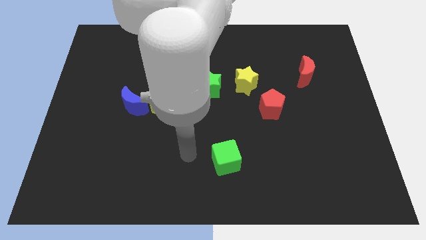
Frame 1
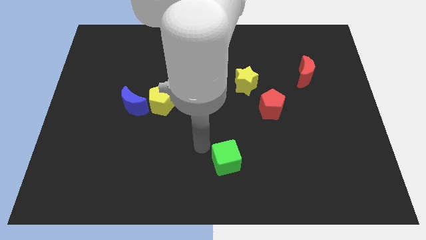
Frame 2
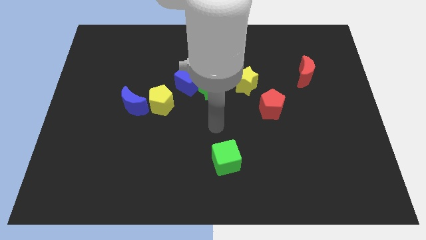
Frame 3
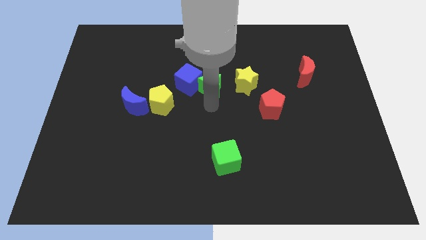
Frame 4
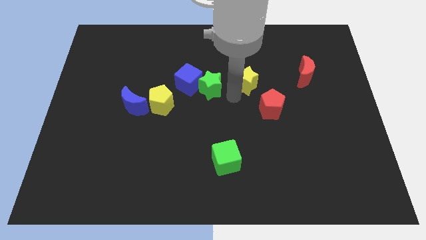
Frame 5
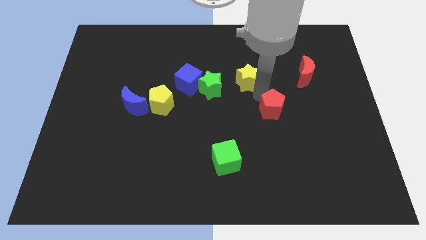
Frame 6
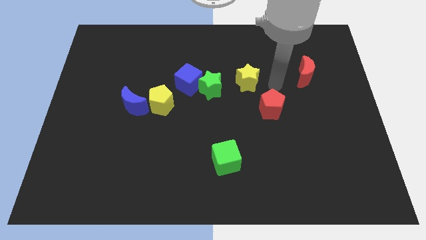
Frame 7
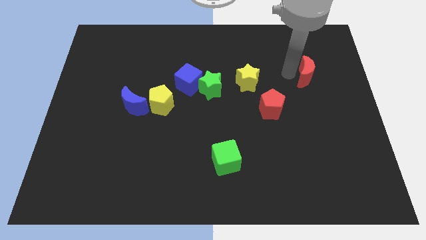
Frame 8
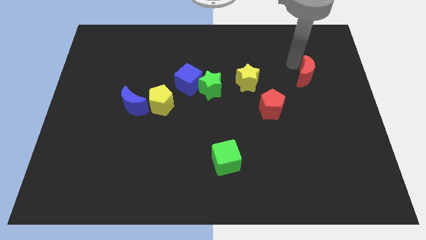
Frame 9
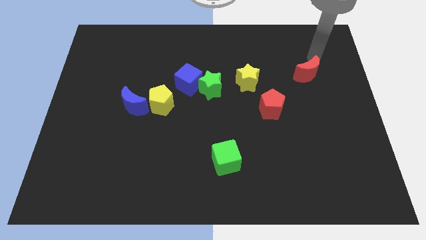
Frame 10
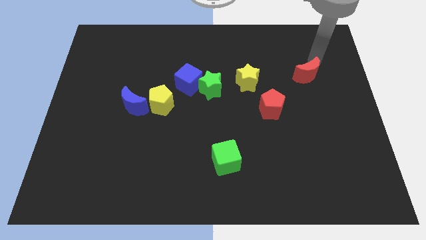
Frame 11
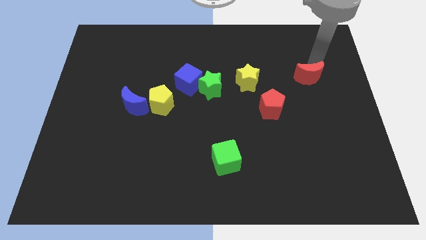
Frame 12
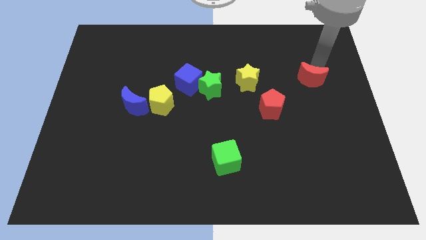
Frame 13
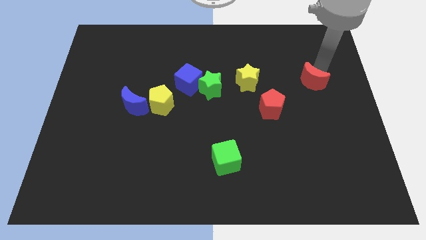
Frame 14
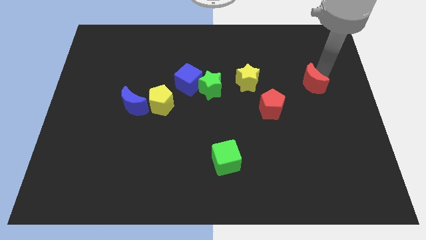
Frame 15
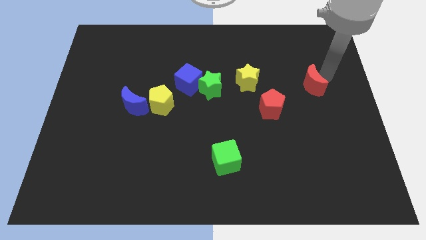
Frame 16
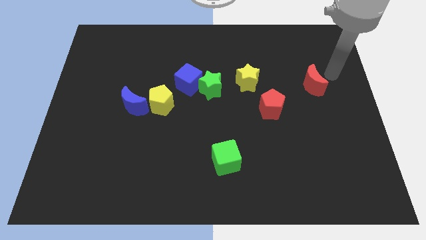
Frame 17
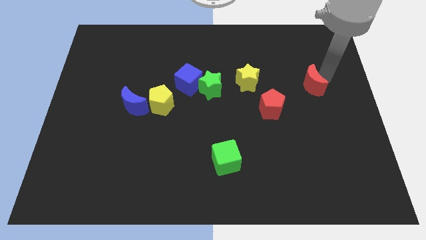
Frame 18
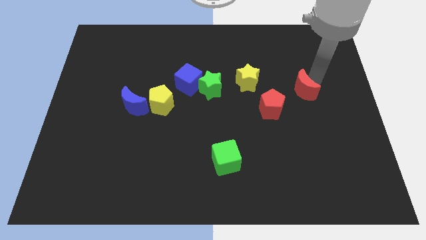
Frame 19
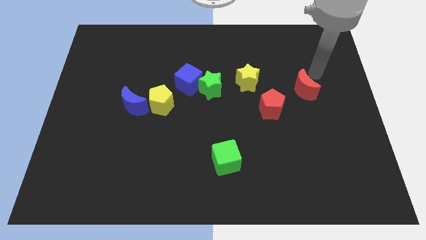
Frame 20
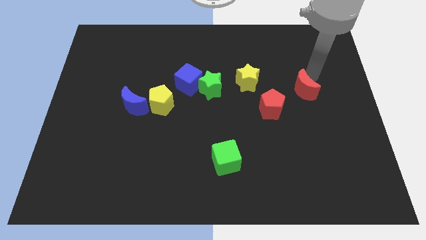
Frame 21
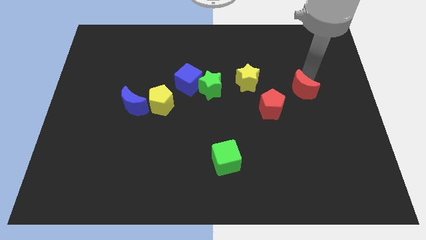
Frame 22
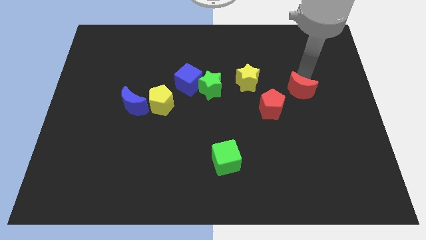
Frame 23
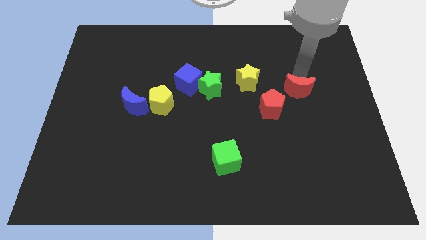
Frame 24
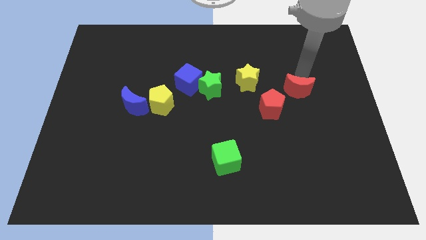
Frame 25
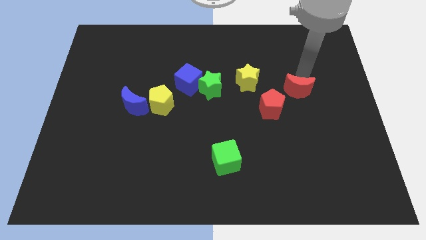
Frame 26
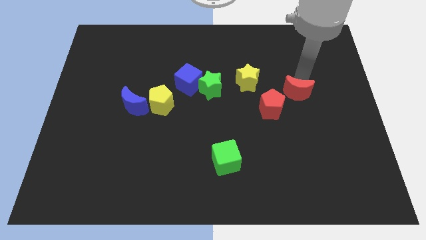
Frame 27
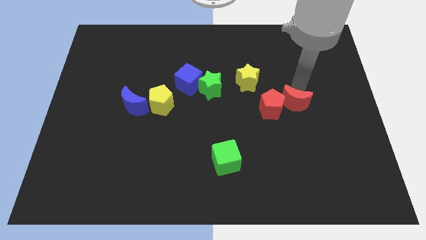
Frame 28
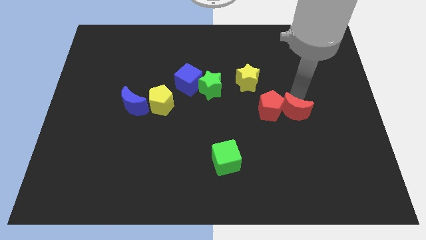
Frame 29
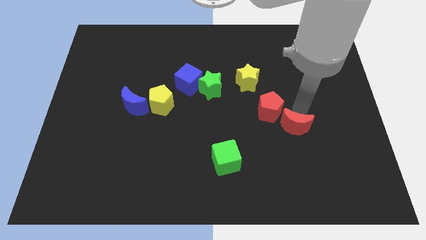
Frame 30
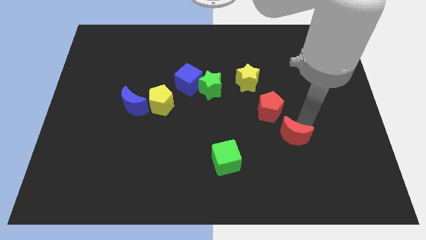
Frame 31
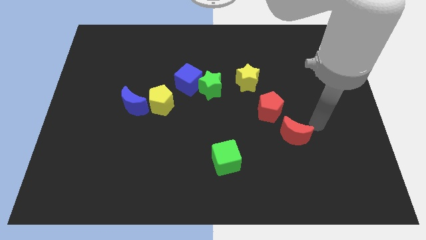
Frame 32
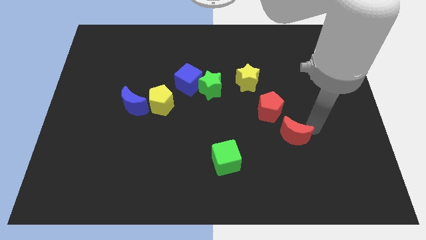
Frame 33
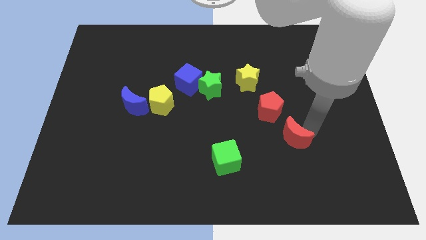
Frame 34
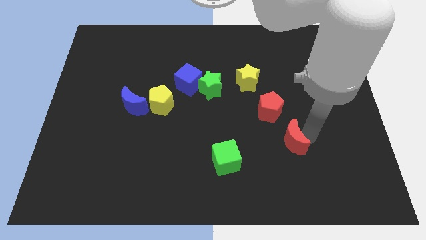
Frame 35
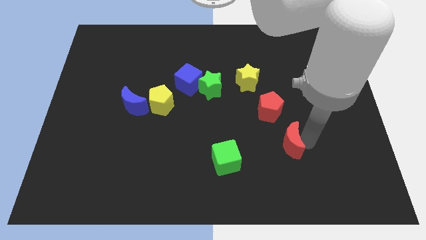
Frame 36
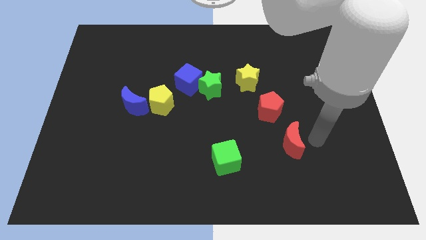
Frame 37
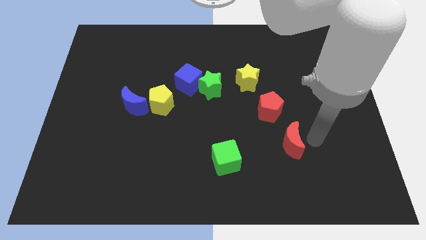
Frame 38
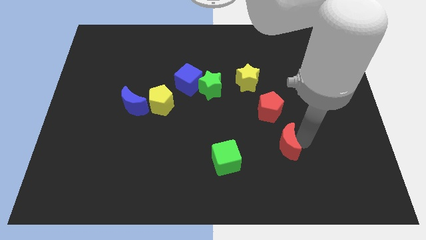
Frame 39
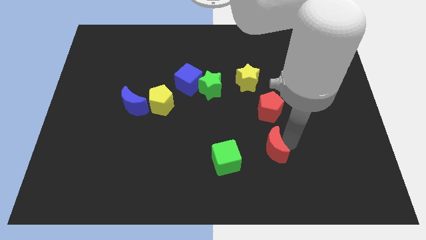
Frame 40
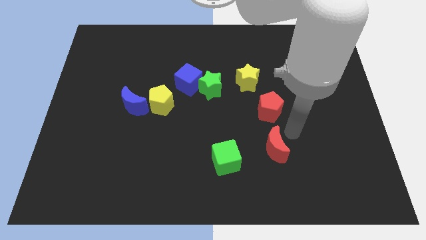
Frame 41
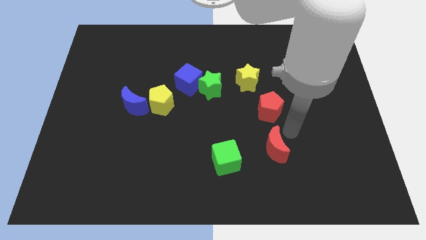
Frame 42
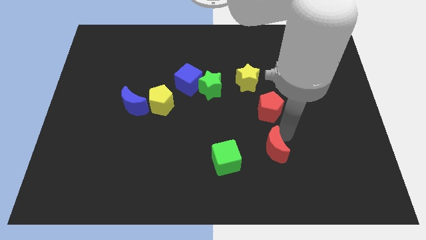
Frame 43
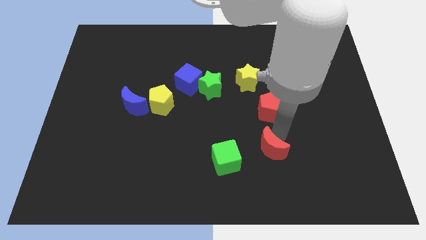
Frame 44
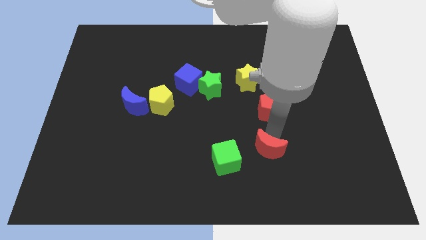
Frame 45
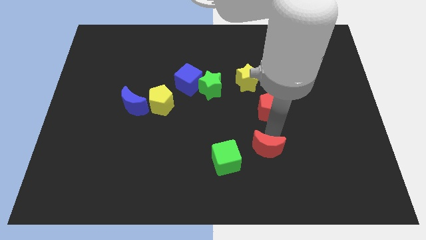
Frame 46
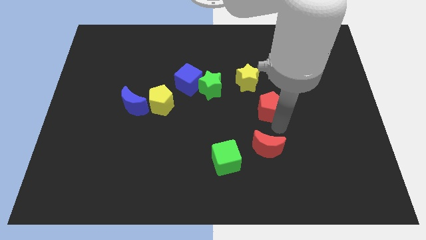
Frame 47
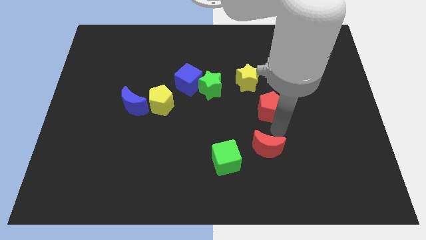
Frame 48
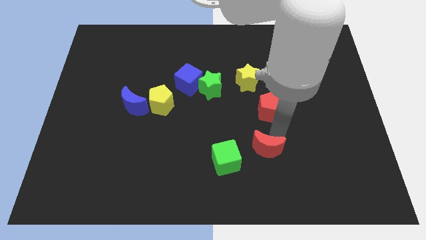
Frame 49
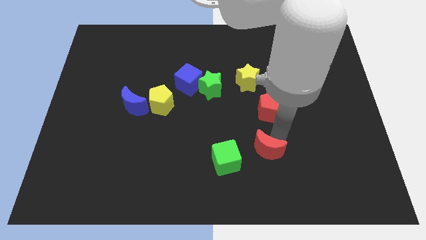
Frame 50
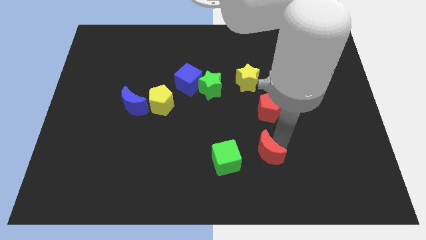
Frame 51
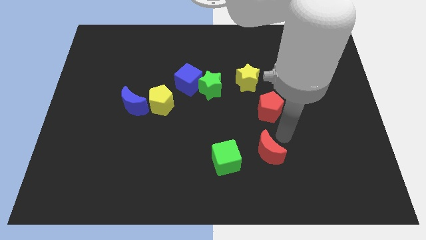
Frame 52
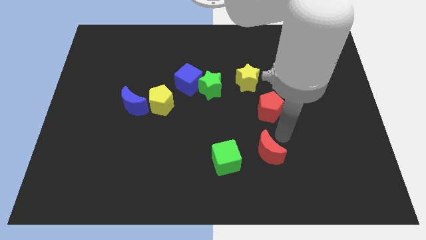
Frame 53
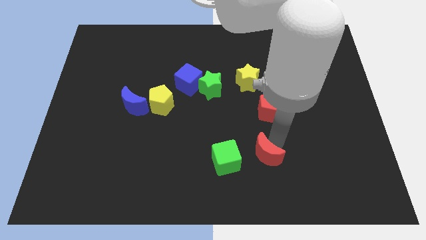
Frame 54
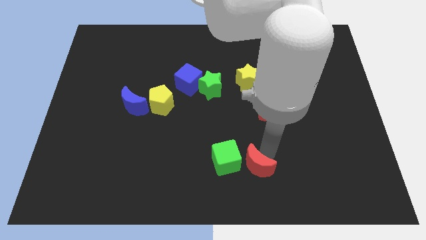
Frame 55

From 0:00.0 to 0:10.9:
put the red moon to the bottom side
